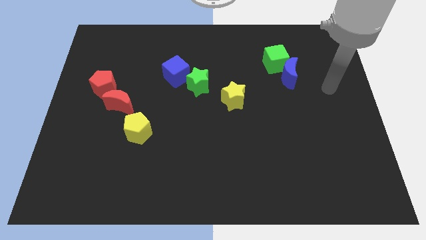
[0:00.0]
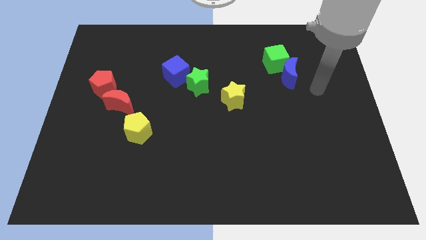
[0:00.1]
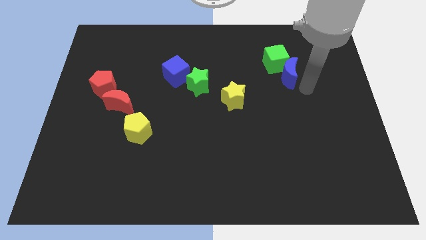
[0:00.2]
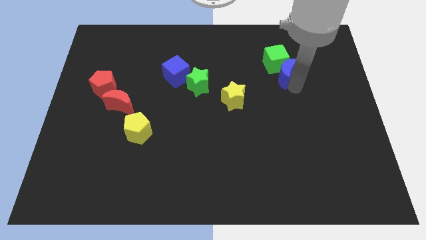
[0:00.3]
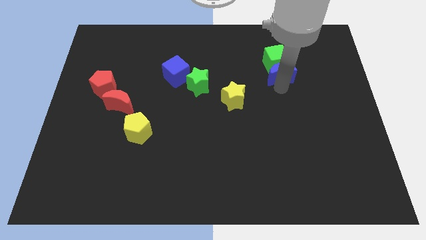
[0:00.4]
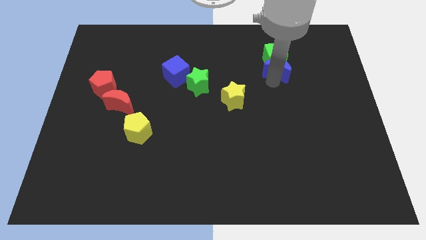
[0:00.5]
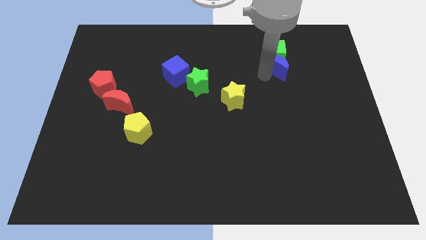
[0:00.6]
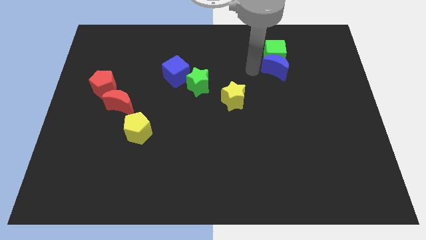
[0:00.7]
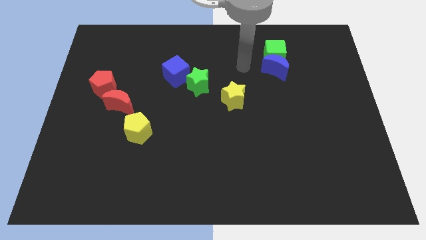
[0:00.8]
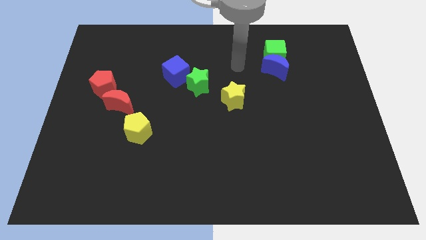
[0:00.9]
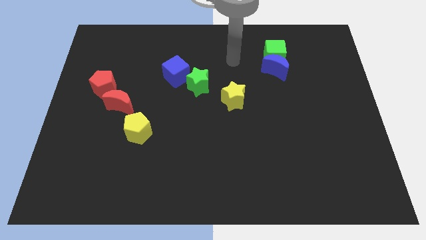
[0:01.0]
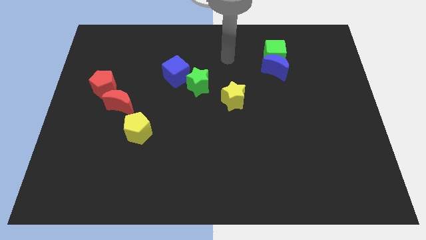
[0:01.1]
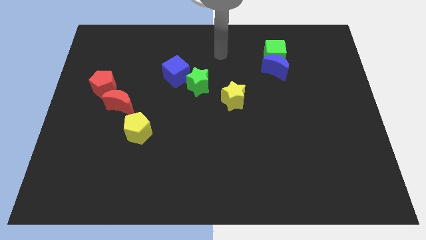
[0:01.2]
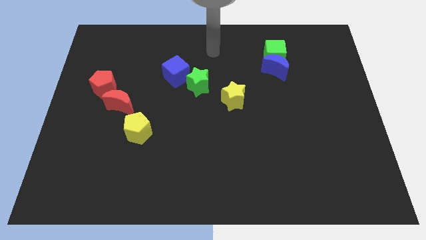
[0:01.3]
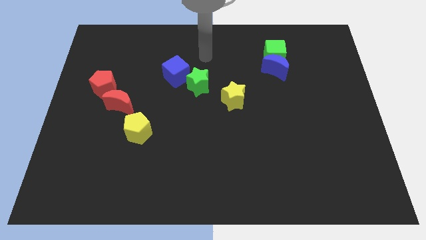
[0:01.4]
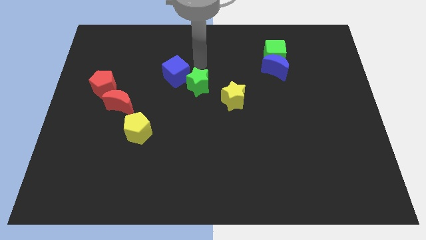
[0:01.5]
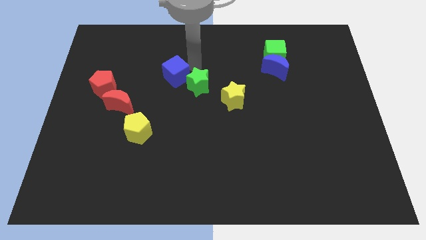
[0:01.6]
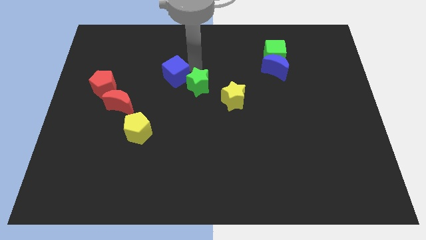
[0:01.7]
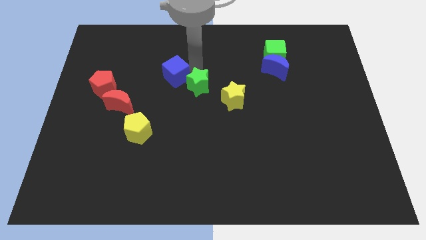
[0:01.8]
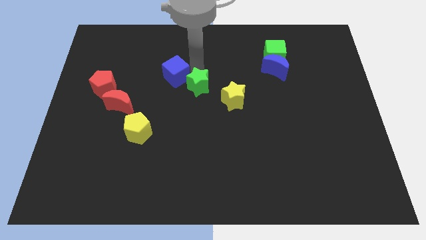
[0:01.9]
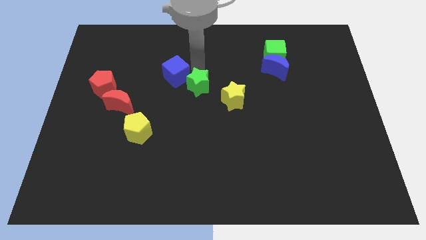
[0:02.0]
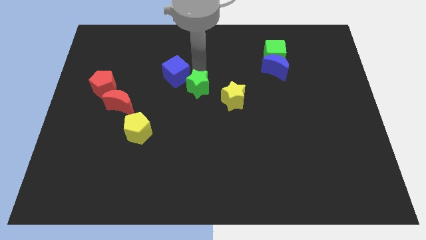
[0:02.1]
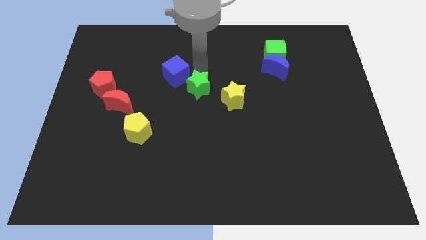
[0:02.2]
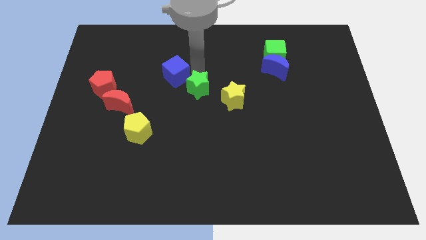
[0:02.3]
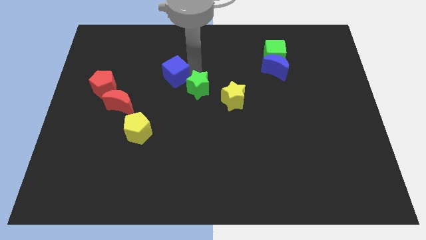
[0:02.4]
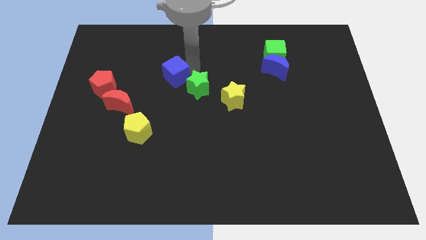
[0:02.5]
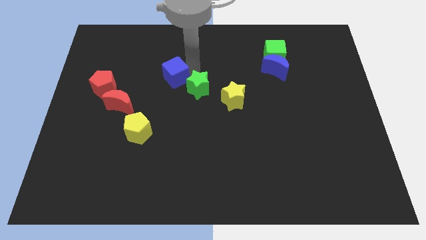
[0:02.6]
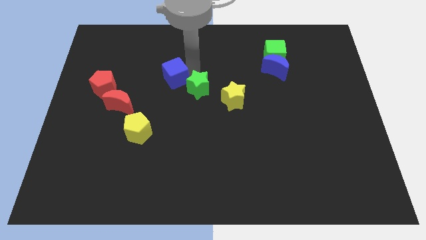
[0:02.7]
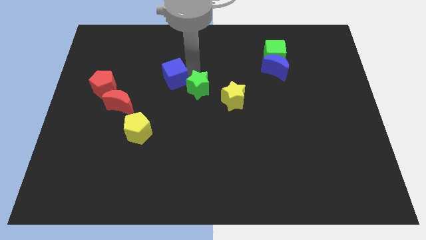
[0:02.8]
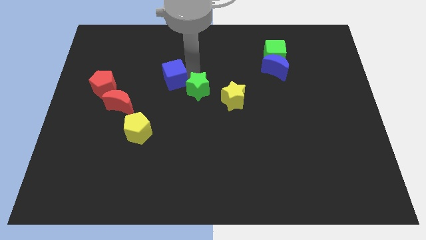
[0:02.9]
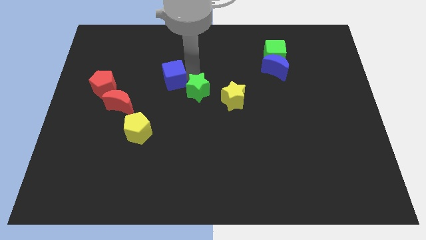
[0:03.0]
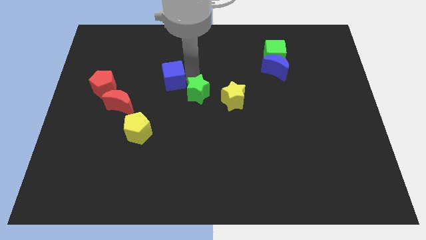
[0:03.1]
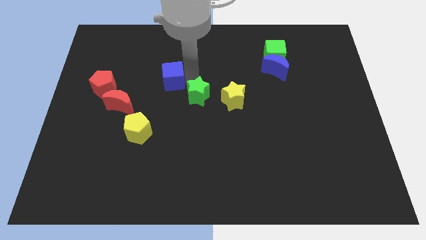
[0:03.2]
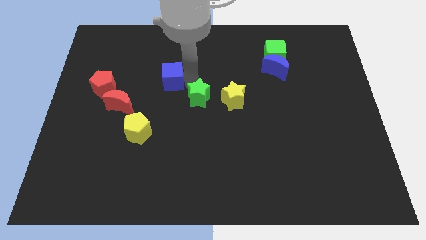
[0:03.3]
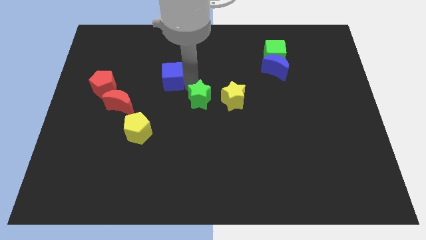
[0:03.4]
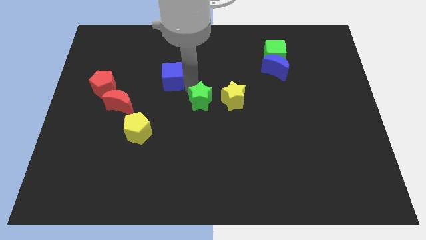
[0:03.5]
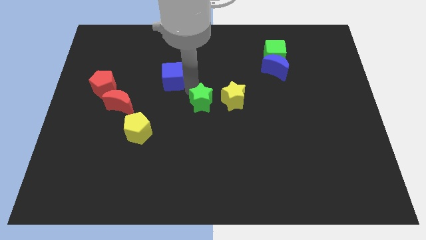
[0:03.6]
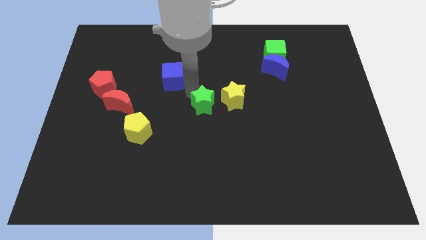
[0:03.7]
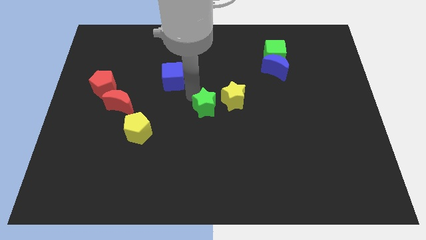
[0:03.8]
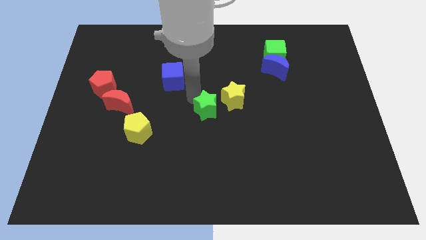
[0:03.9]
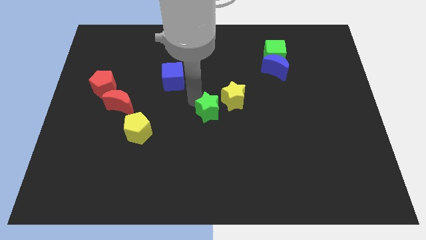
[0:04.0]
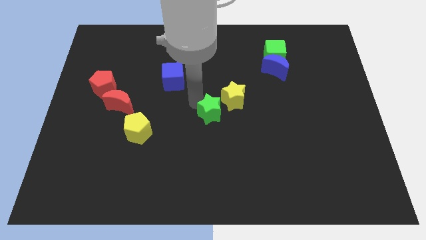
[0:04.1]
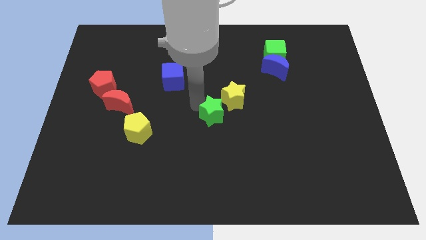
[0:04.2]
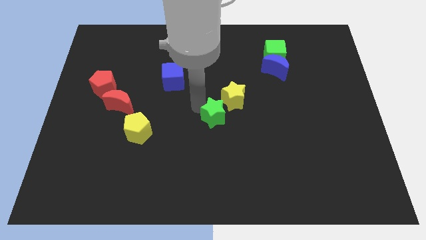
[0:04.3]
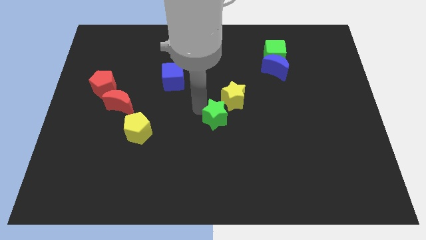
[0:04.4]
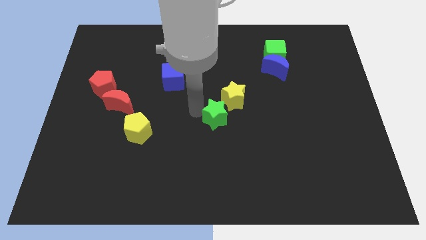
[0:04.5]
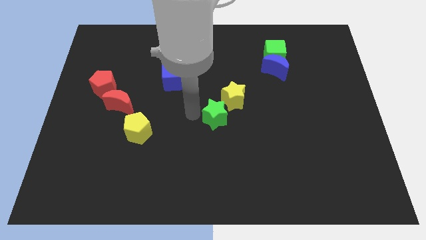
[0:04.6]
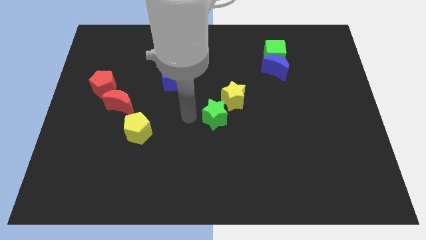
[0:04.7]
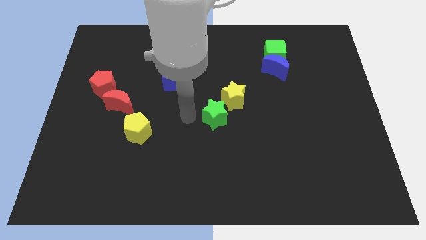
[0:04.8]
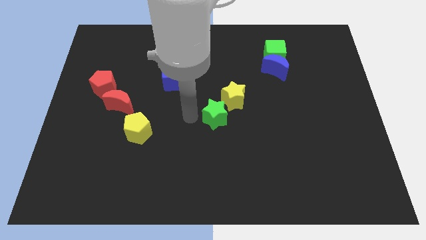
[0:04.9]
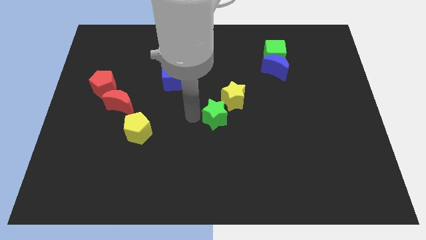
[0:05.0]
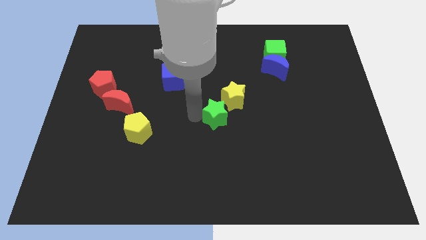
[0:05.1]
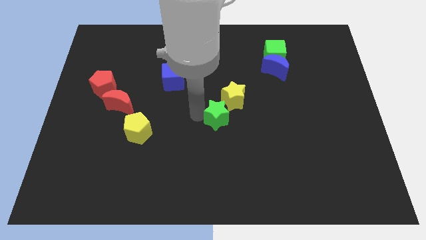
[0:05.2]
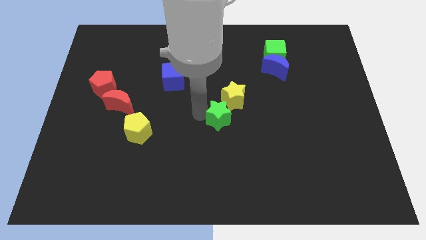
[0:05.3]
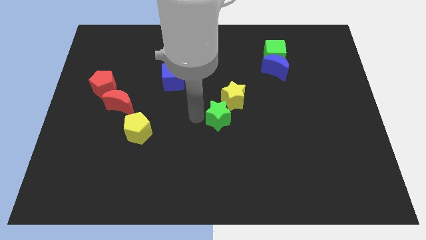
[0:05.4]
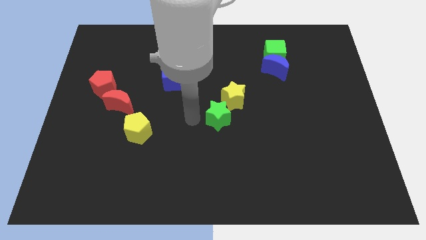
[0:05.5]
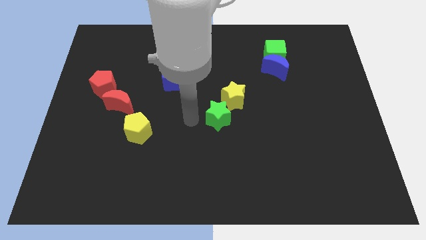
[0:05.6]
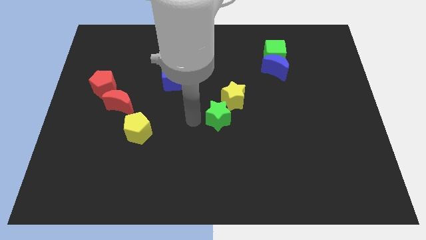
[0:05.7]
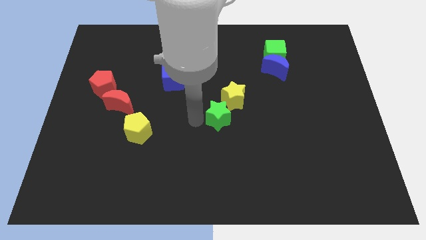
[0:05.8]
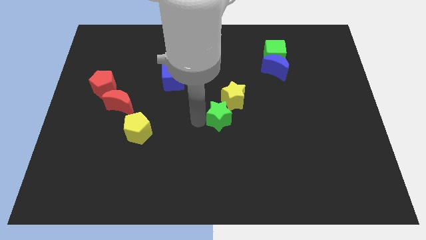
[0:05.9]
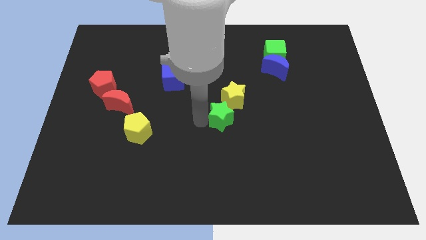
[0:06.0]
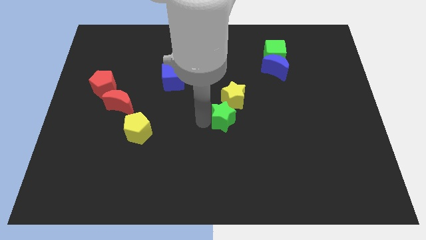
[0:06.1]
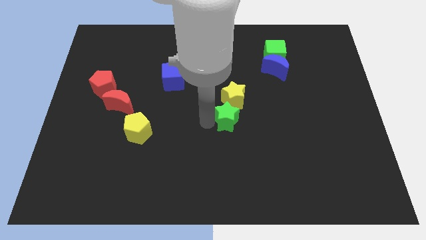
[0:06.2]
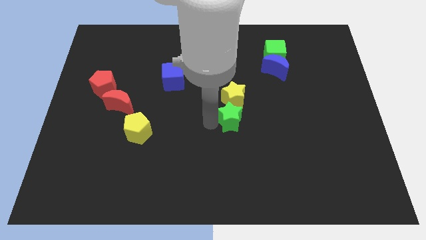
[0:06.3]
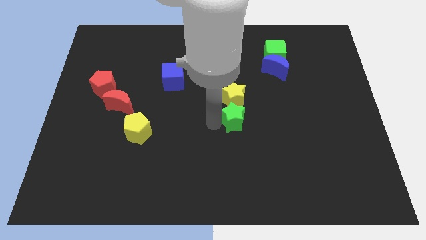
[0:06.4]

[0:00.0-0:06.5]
move the green star to the bottom right of the yellow star

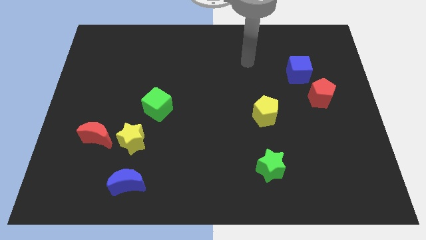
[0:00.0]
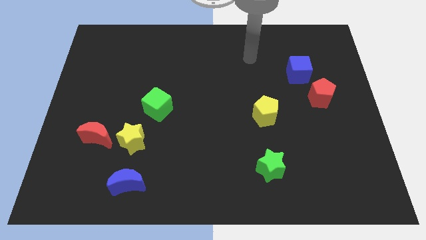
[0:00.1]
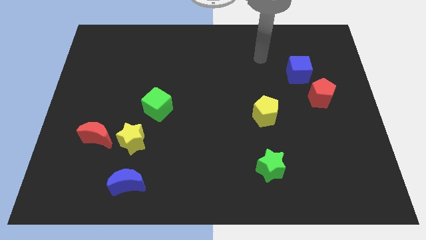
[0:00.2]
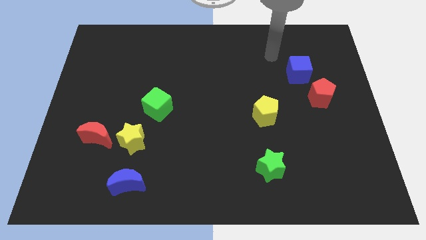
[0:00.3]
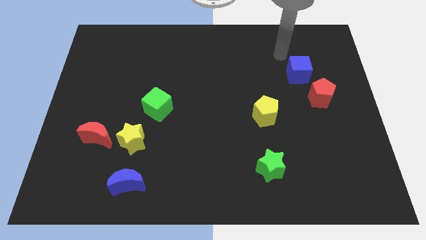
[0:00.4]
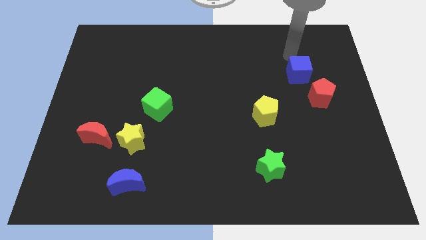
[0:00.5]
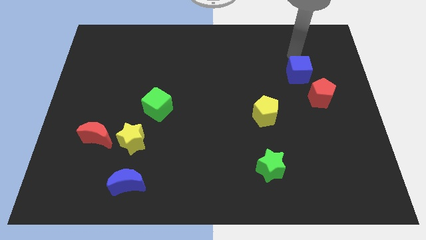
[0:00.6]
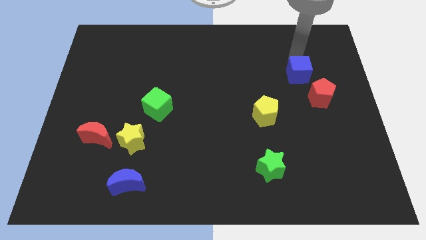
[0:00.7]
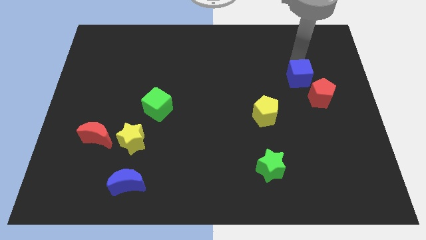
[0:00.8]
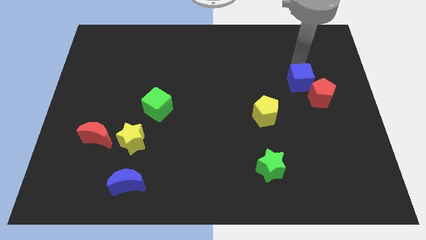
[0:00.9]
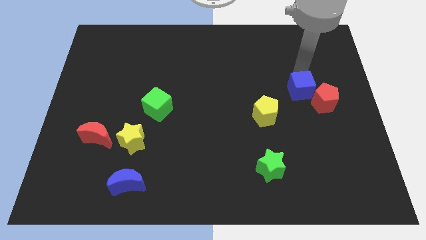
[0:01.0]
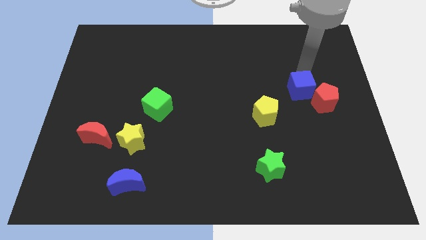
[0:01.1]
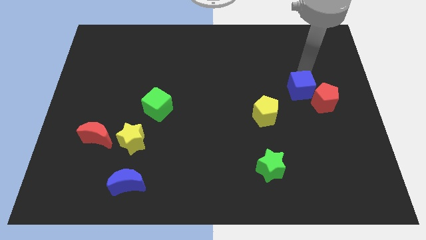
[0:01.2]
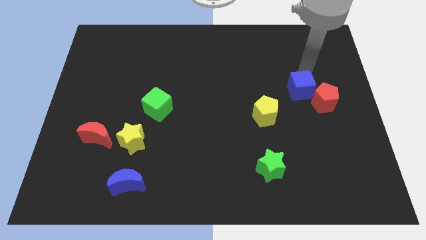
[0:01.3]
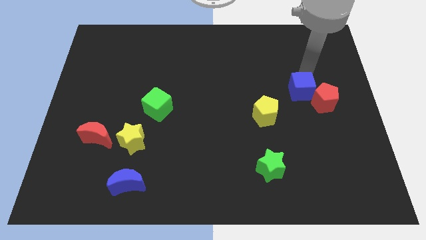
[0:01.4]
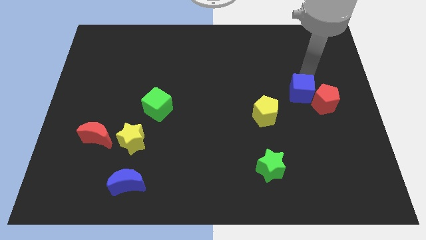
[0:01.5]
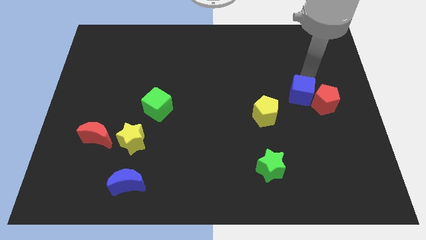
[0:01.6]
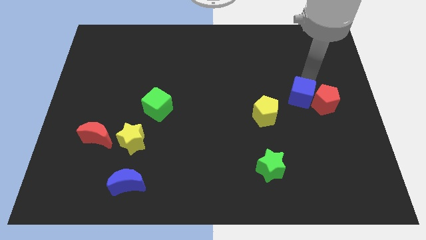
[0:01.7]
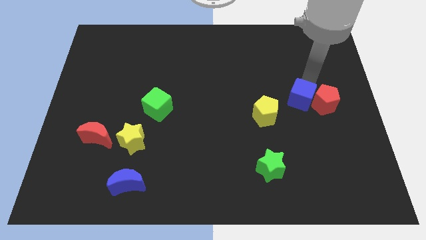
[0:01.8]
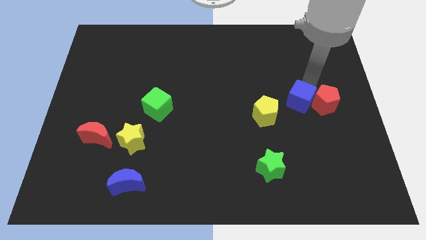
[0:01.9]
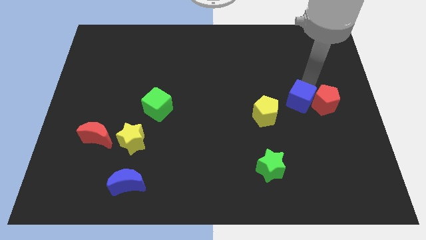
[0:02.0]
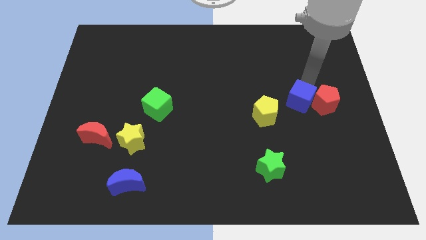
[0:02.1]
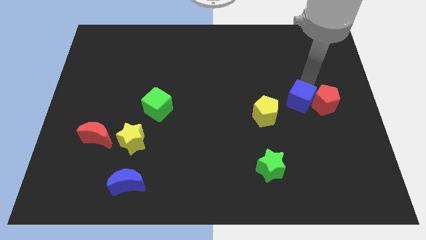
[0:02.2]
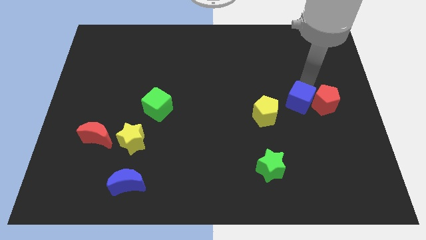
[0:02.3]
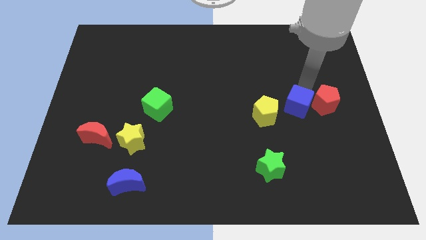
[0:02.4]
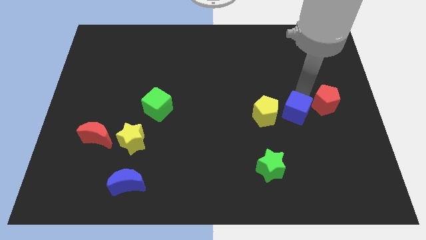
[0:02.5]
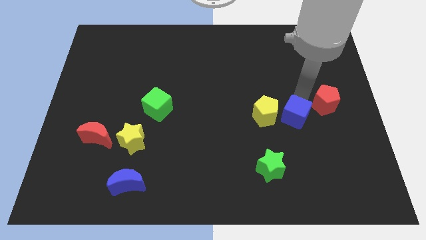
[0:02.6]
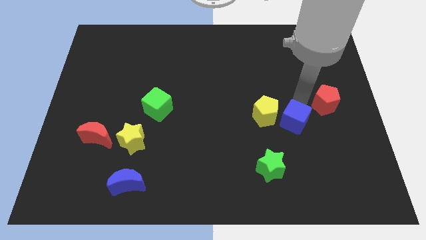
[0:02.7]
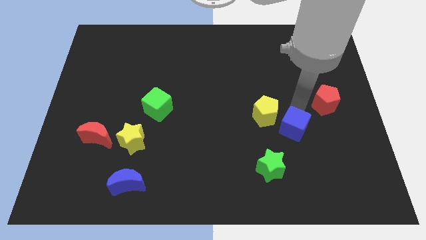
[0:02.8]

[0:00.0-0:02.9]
slide the blue cube diagonally up and to the right of the green star
